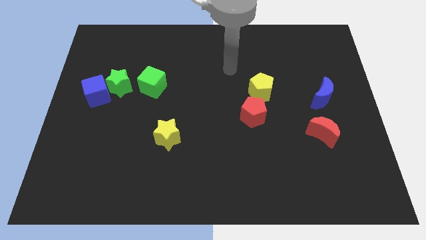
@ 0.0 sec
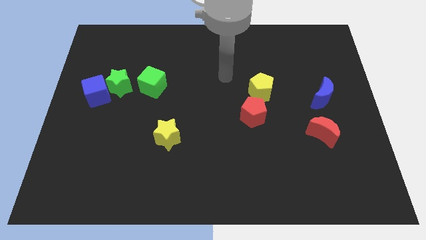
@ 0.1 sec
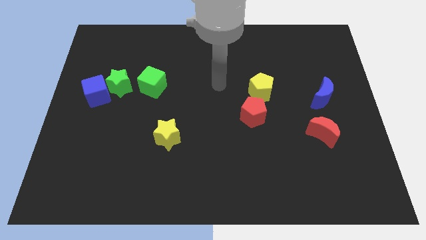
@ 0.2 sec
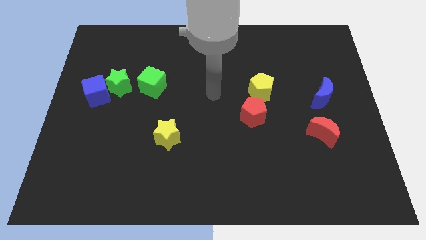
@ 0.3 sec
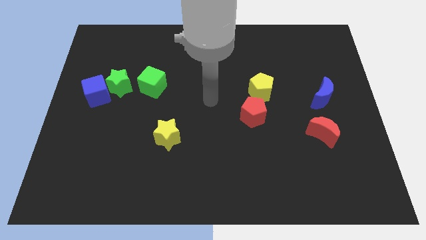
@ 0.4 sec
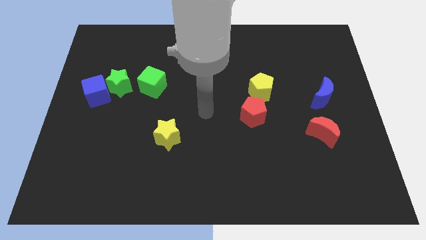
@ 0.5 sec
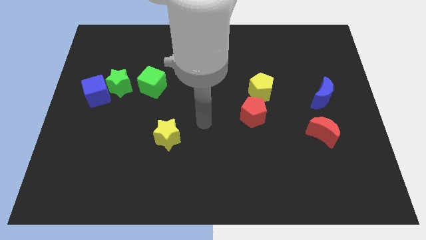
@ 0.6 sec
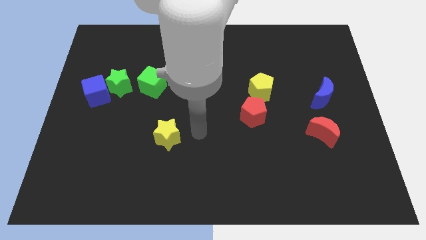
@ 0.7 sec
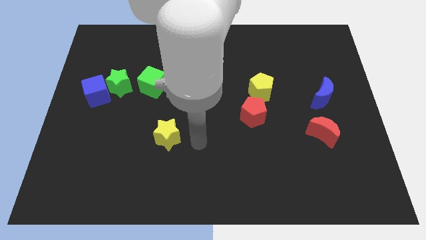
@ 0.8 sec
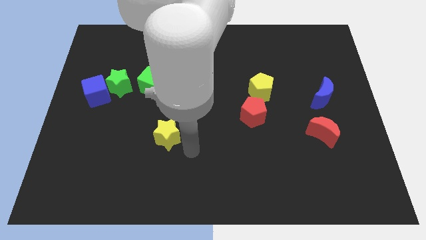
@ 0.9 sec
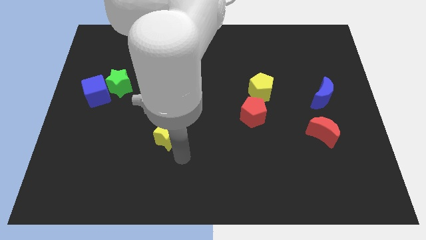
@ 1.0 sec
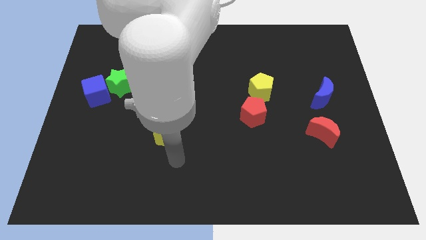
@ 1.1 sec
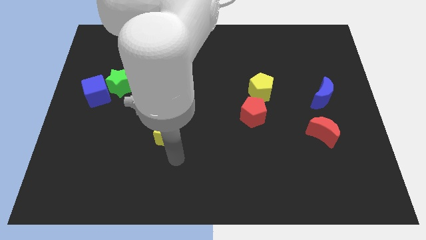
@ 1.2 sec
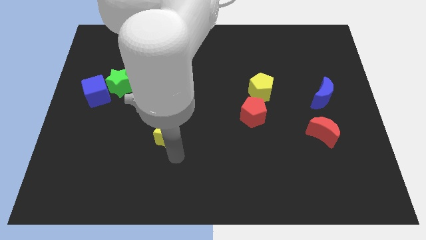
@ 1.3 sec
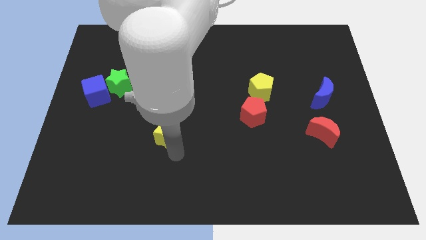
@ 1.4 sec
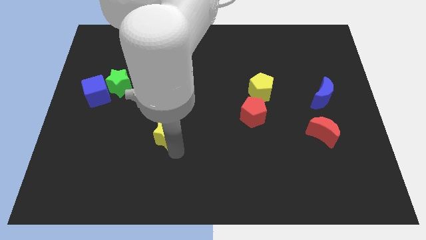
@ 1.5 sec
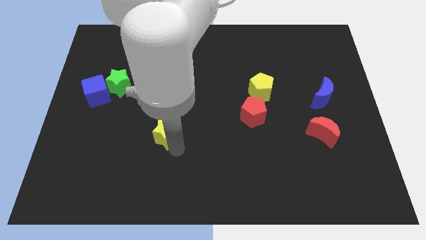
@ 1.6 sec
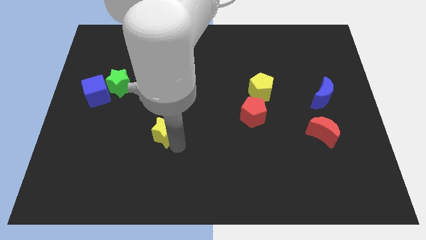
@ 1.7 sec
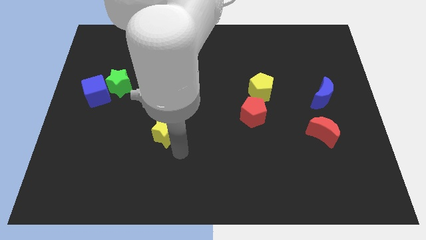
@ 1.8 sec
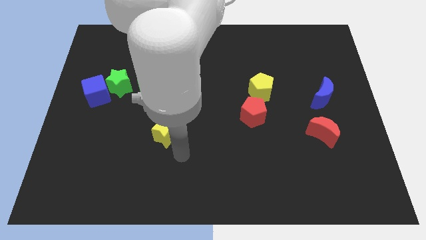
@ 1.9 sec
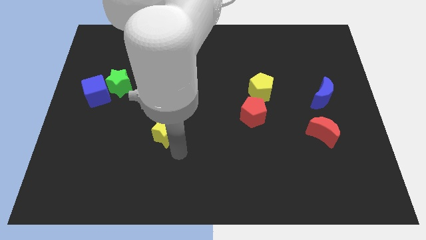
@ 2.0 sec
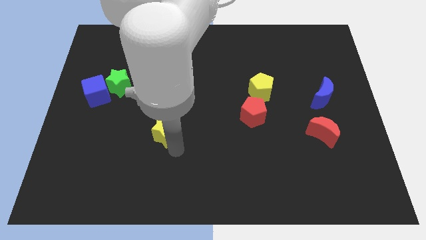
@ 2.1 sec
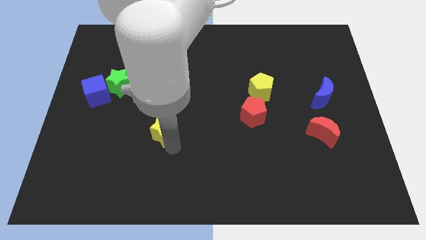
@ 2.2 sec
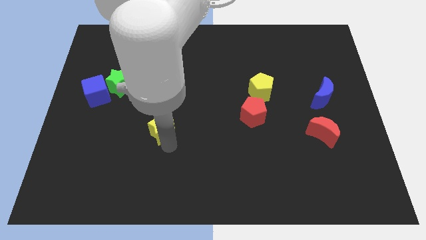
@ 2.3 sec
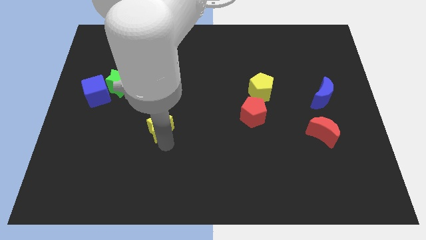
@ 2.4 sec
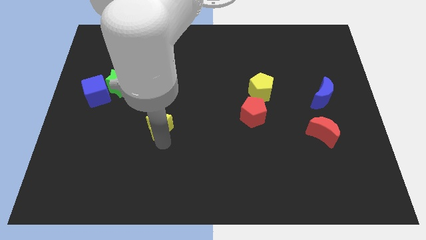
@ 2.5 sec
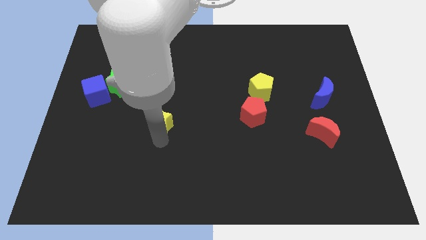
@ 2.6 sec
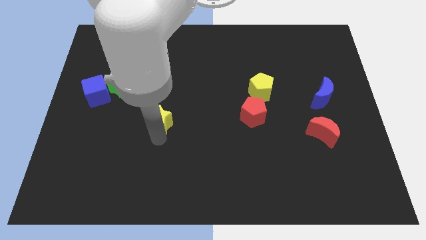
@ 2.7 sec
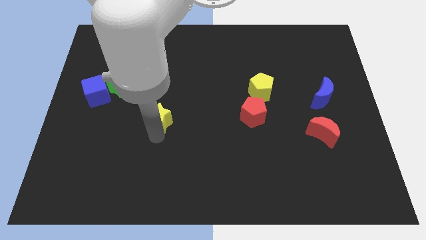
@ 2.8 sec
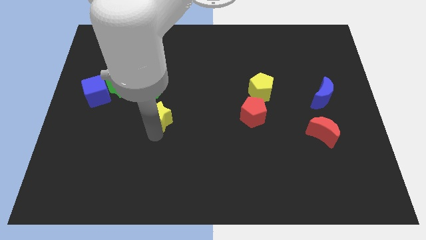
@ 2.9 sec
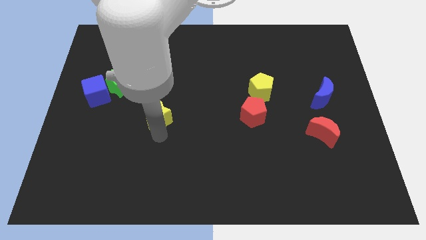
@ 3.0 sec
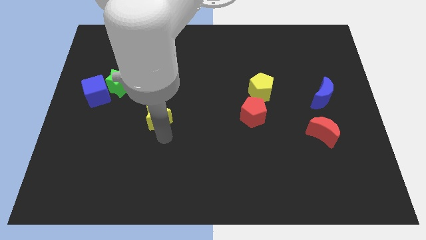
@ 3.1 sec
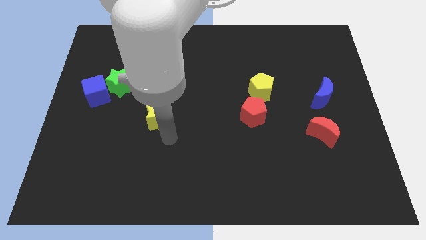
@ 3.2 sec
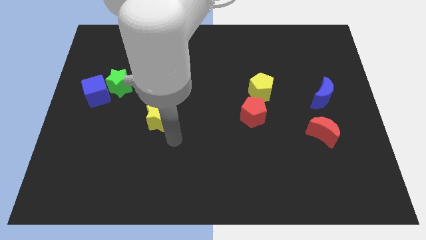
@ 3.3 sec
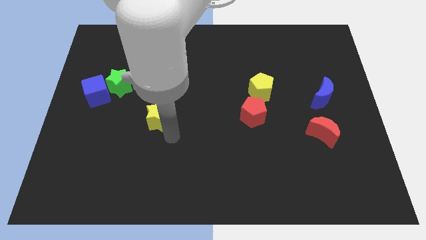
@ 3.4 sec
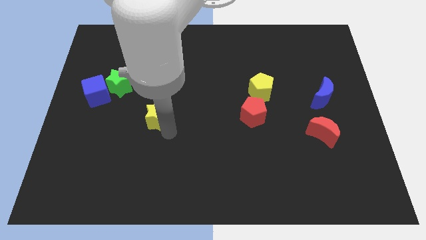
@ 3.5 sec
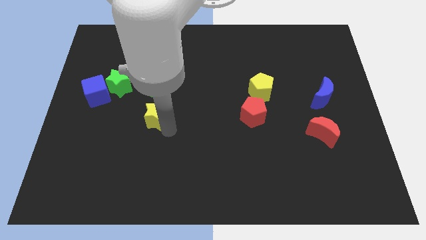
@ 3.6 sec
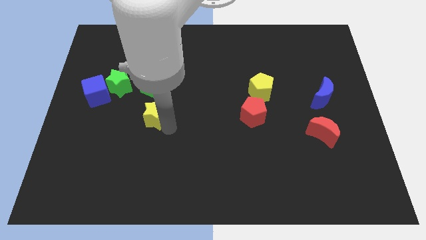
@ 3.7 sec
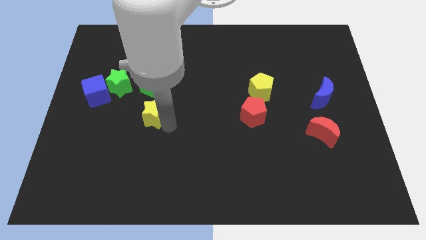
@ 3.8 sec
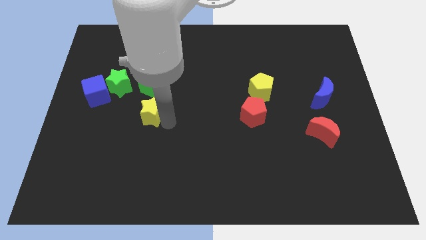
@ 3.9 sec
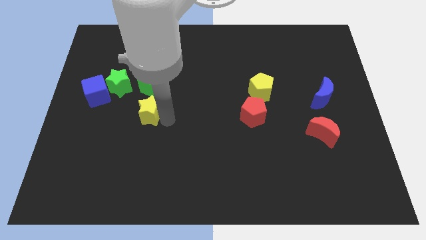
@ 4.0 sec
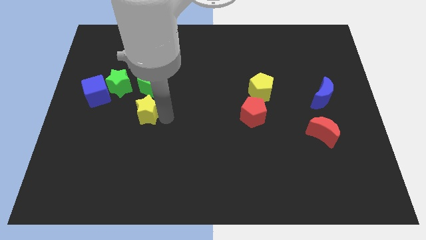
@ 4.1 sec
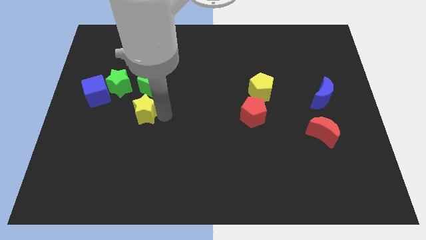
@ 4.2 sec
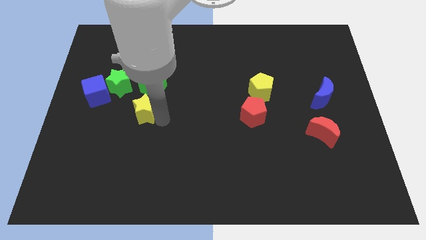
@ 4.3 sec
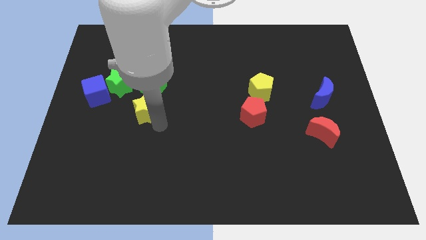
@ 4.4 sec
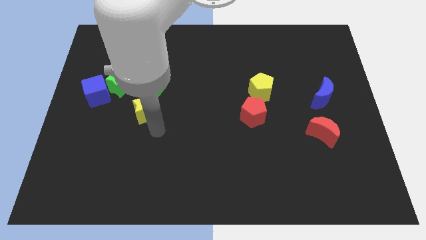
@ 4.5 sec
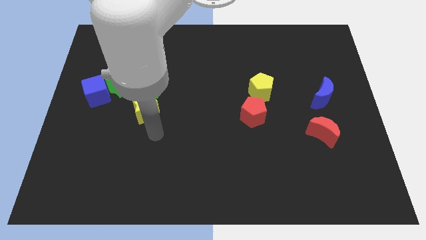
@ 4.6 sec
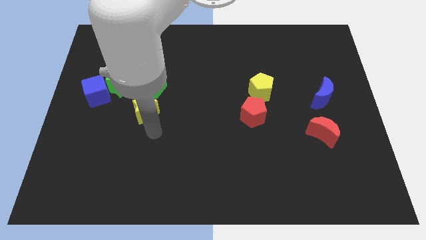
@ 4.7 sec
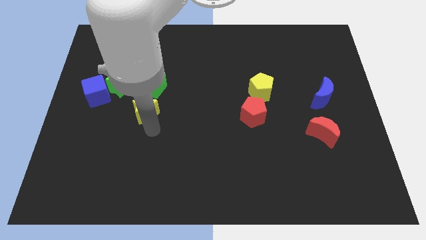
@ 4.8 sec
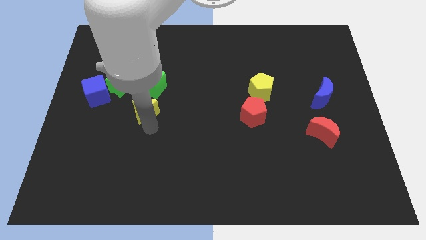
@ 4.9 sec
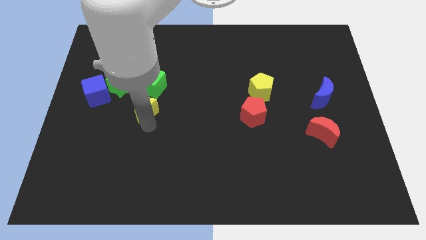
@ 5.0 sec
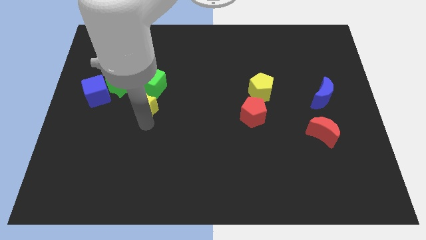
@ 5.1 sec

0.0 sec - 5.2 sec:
slide the yellow star just right of the blue cube

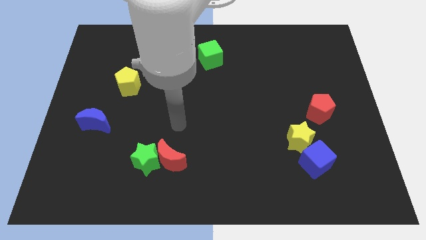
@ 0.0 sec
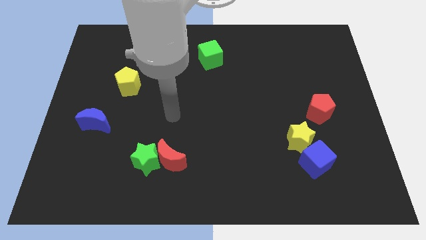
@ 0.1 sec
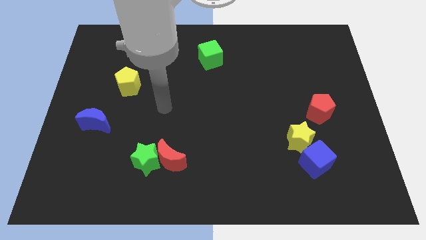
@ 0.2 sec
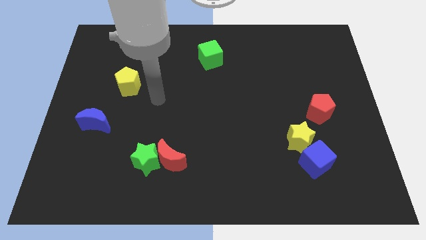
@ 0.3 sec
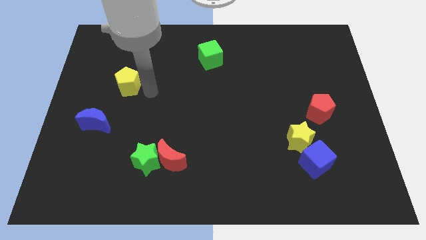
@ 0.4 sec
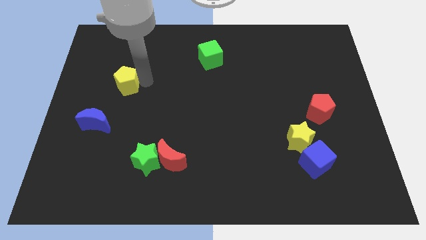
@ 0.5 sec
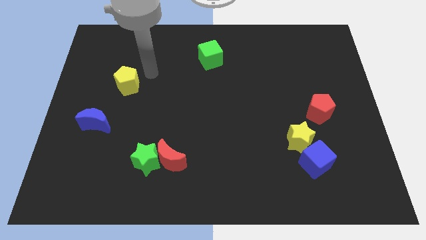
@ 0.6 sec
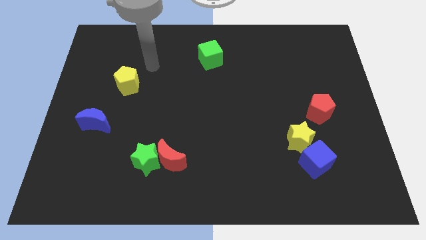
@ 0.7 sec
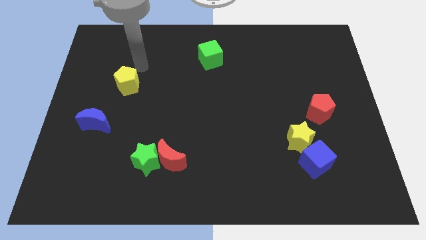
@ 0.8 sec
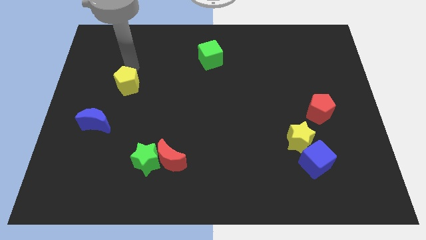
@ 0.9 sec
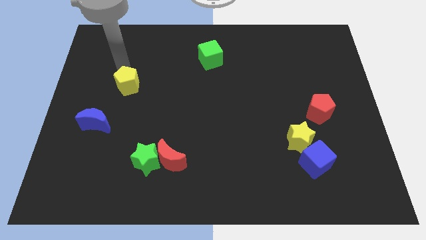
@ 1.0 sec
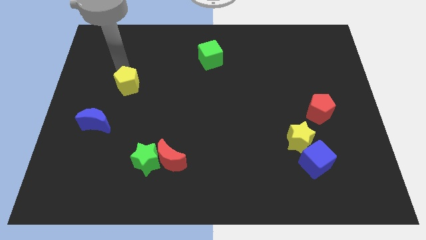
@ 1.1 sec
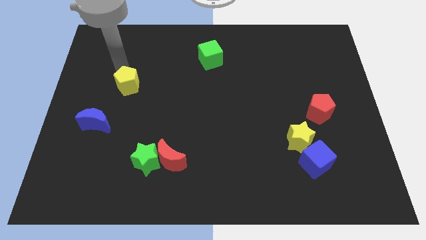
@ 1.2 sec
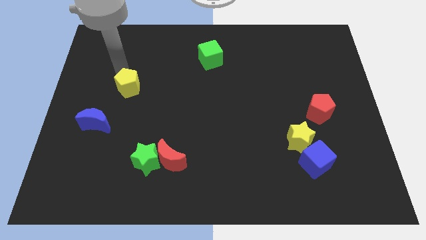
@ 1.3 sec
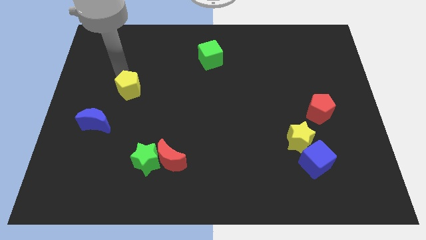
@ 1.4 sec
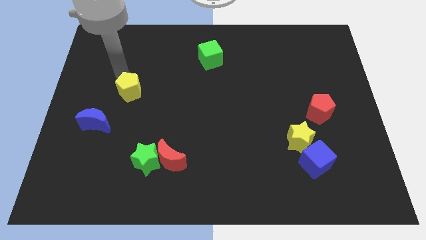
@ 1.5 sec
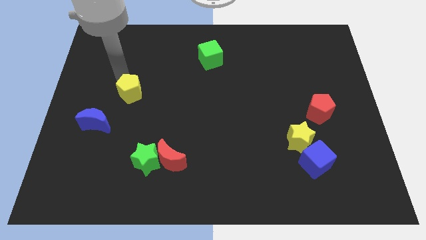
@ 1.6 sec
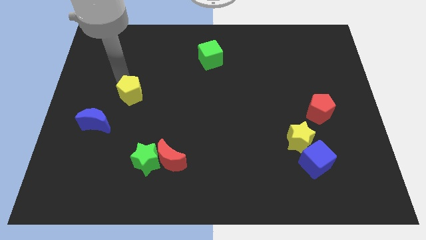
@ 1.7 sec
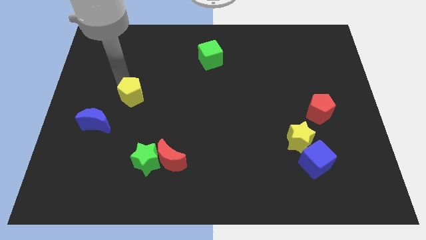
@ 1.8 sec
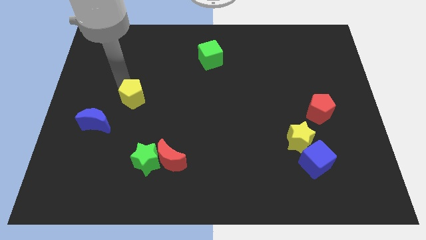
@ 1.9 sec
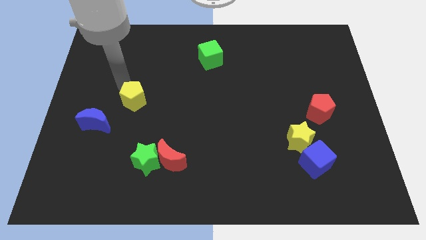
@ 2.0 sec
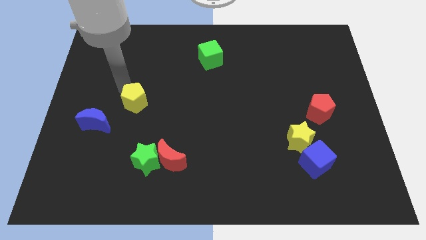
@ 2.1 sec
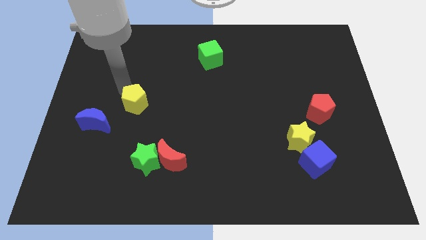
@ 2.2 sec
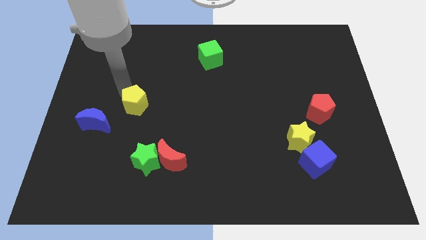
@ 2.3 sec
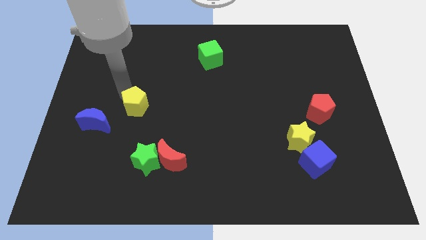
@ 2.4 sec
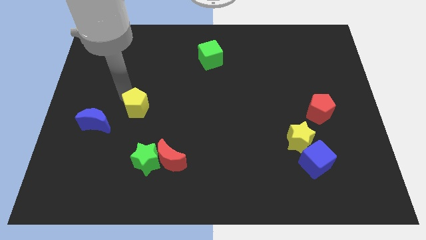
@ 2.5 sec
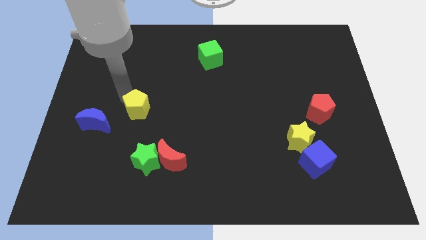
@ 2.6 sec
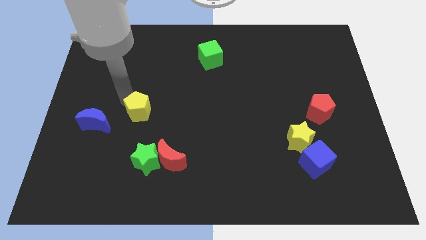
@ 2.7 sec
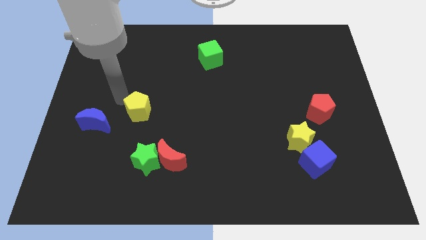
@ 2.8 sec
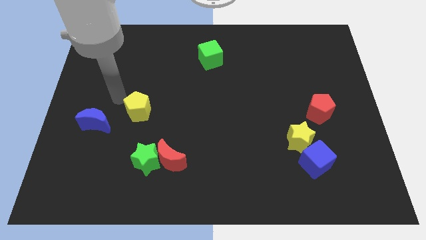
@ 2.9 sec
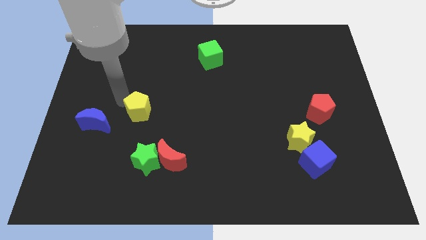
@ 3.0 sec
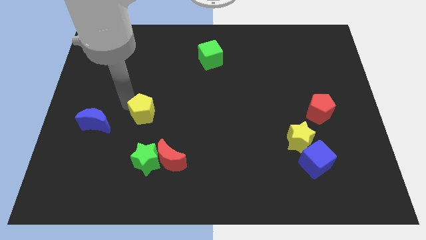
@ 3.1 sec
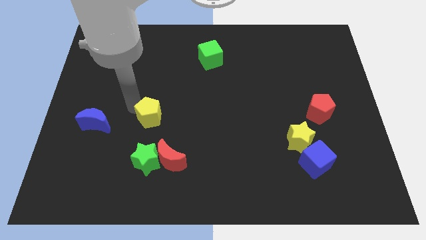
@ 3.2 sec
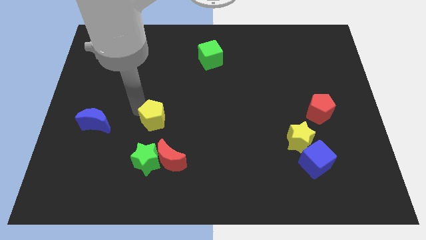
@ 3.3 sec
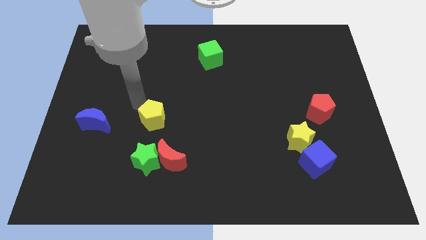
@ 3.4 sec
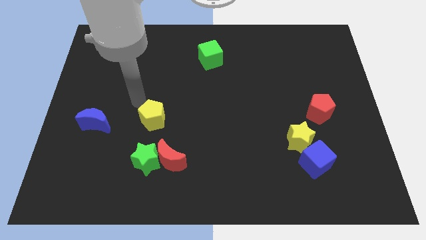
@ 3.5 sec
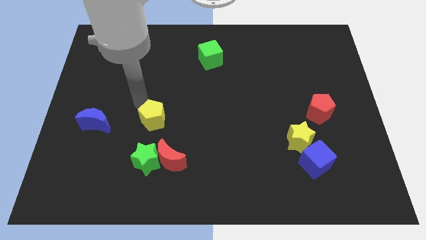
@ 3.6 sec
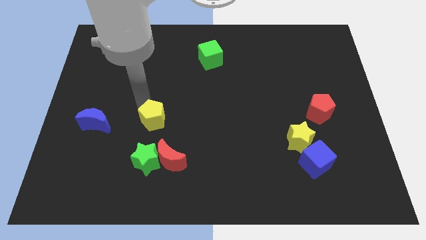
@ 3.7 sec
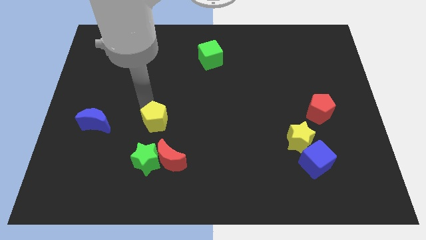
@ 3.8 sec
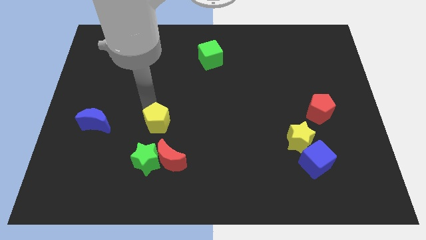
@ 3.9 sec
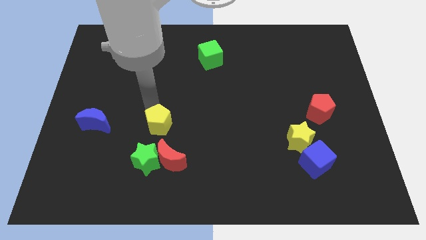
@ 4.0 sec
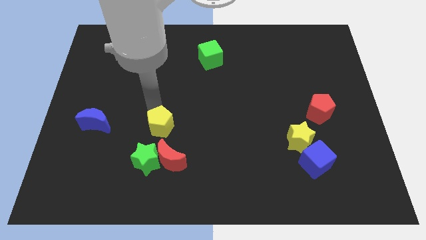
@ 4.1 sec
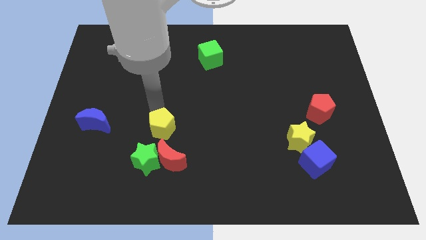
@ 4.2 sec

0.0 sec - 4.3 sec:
push the yellow pentagon diagonally up and to the right of the green star
